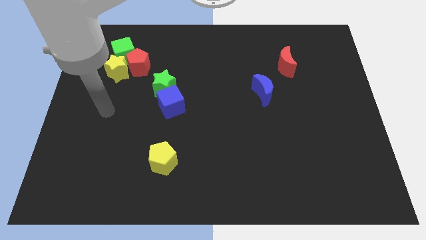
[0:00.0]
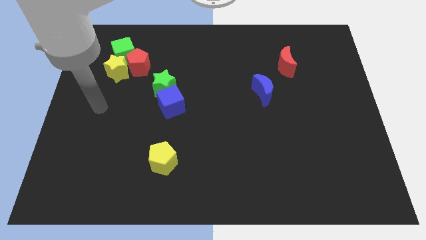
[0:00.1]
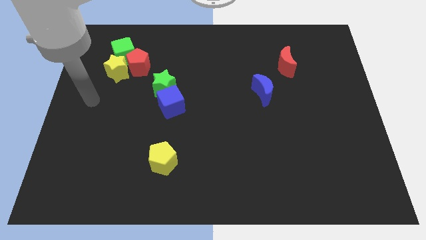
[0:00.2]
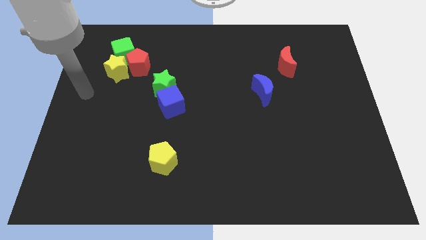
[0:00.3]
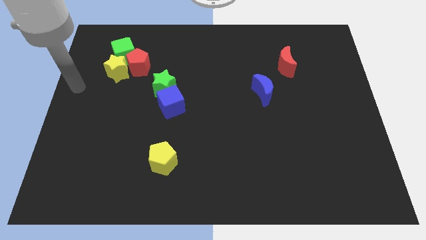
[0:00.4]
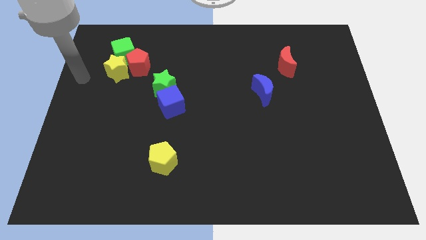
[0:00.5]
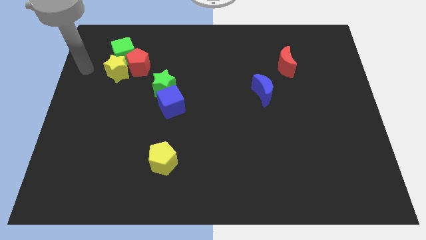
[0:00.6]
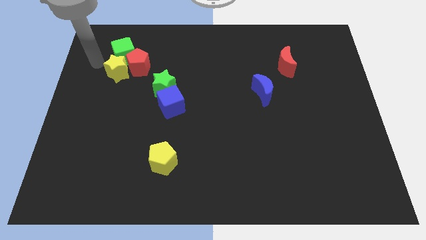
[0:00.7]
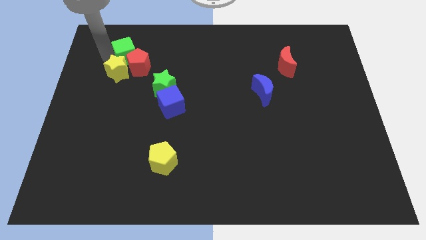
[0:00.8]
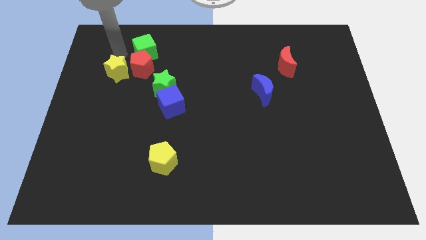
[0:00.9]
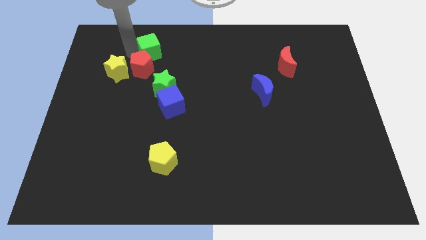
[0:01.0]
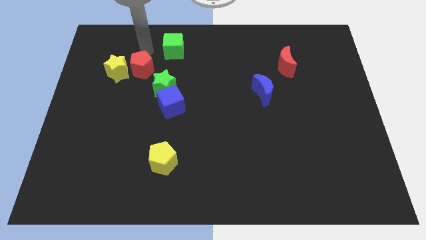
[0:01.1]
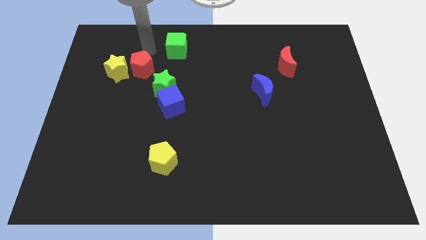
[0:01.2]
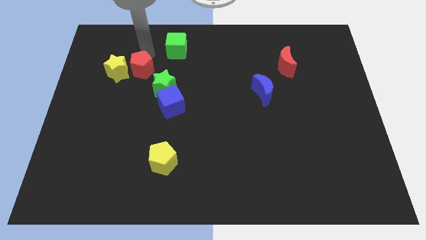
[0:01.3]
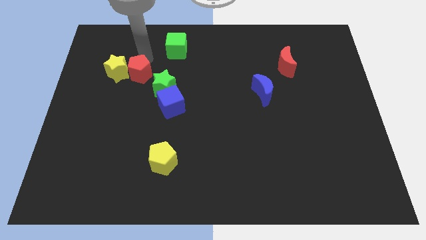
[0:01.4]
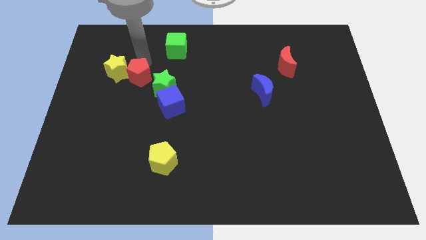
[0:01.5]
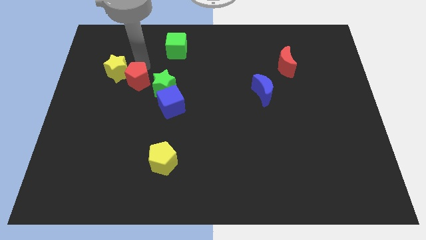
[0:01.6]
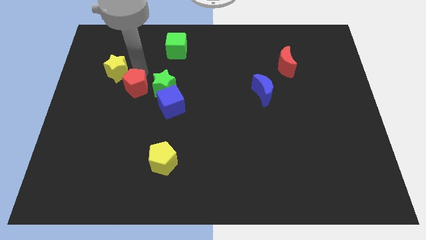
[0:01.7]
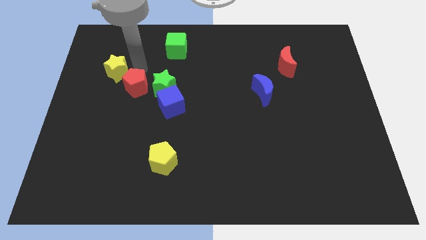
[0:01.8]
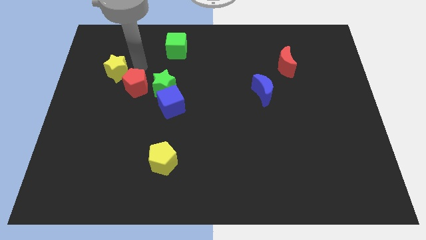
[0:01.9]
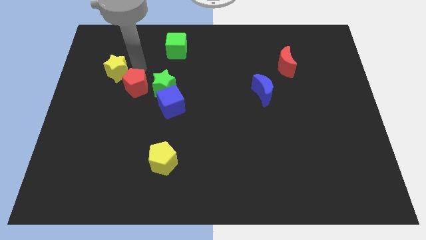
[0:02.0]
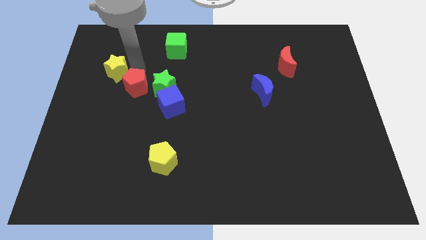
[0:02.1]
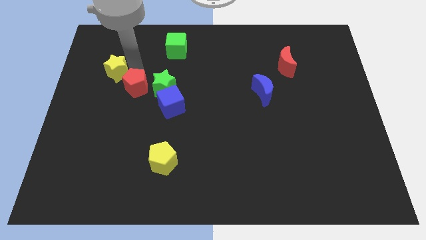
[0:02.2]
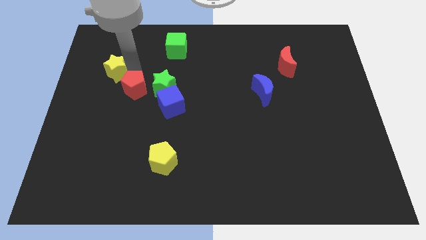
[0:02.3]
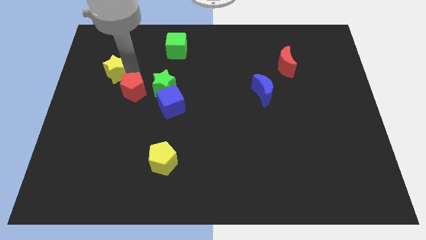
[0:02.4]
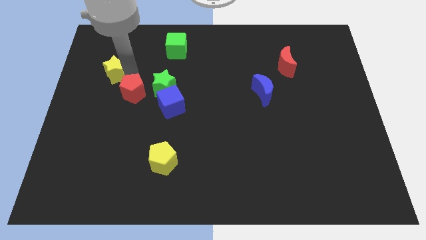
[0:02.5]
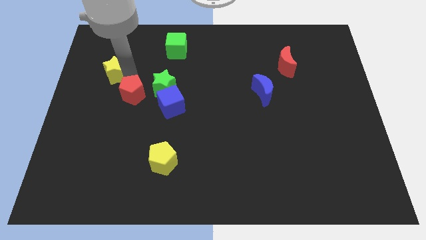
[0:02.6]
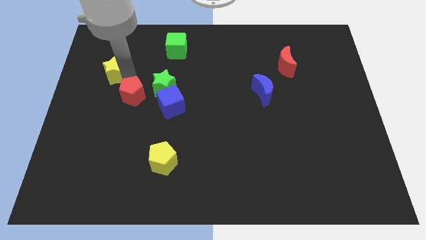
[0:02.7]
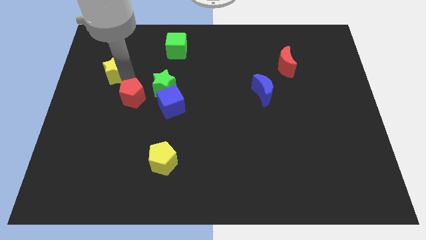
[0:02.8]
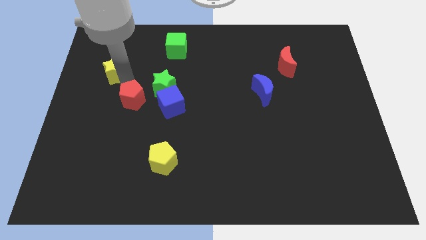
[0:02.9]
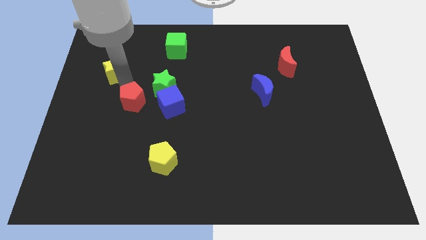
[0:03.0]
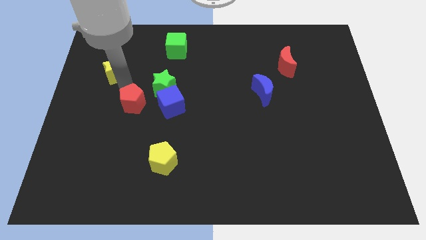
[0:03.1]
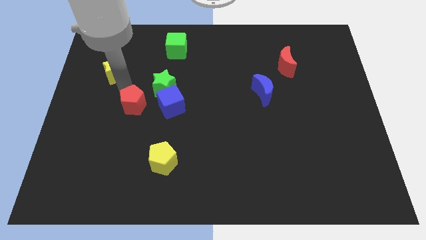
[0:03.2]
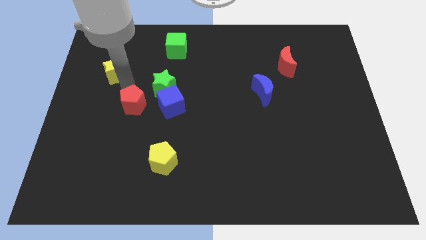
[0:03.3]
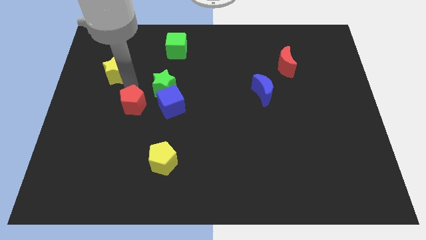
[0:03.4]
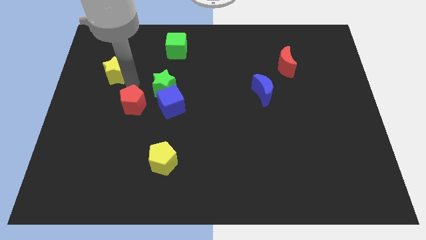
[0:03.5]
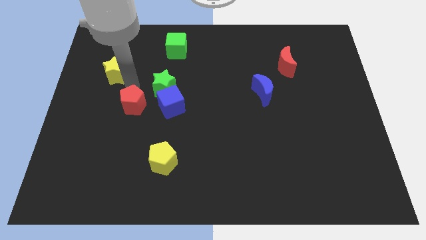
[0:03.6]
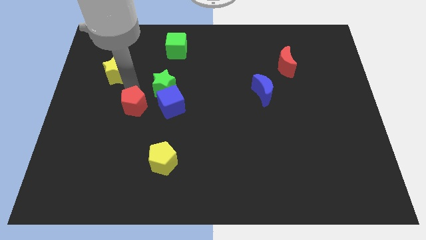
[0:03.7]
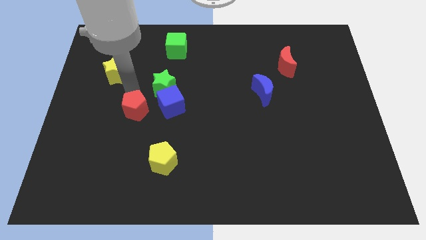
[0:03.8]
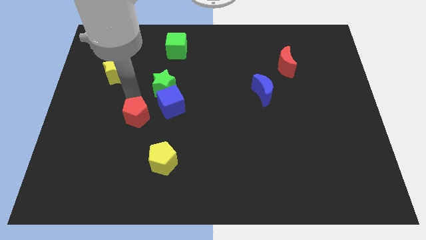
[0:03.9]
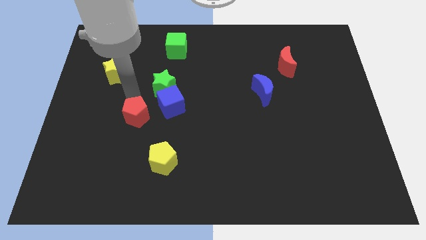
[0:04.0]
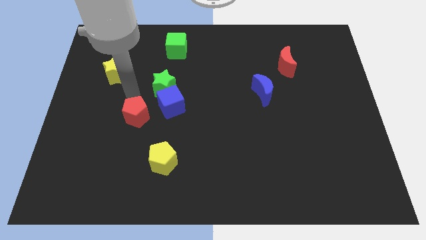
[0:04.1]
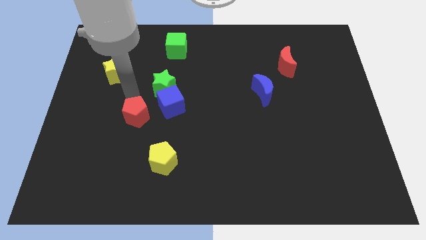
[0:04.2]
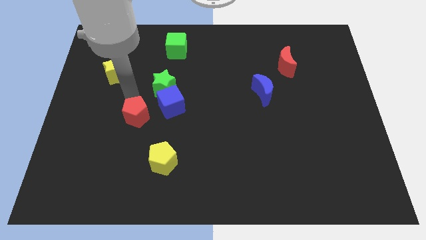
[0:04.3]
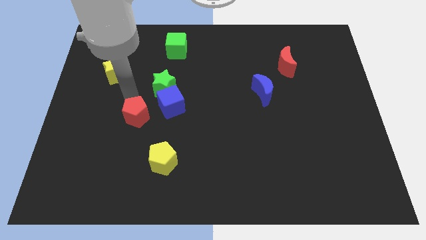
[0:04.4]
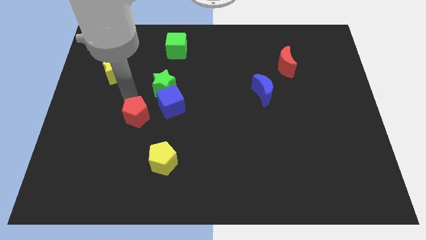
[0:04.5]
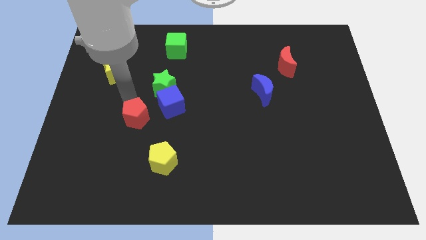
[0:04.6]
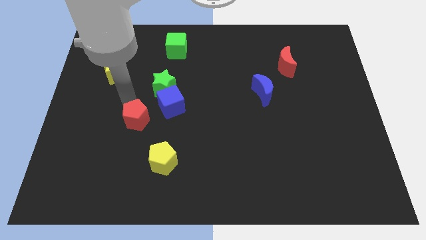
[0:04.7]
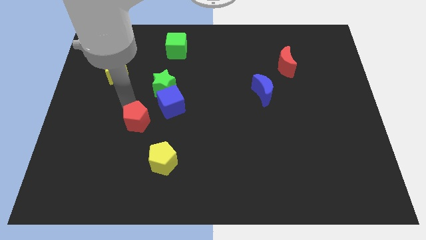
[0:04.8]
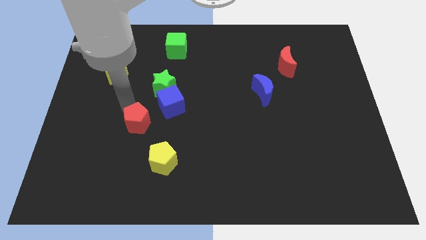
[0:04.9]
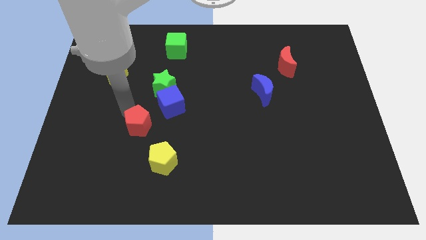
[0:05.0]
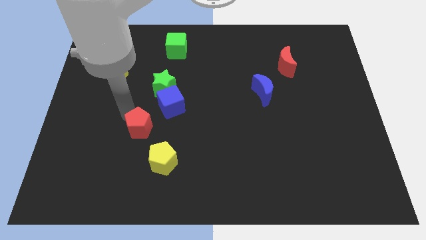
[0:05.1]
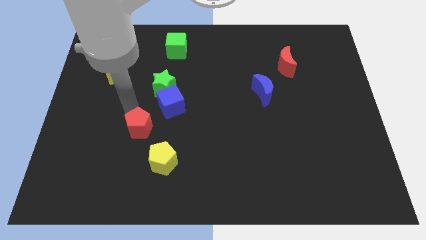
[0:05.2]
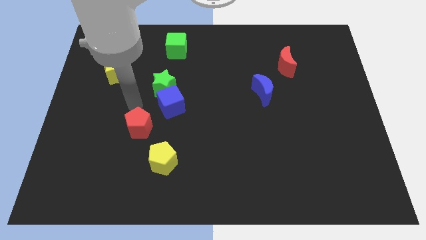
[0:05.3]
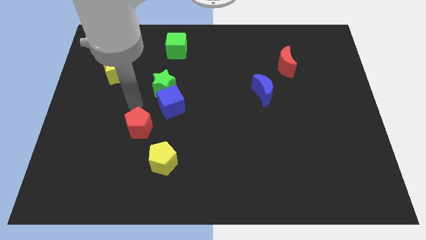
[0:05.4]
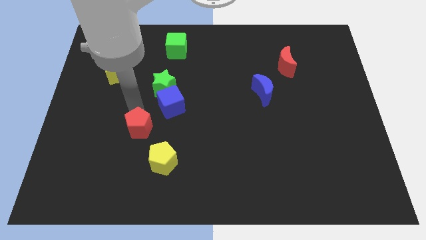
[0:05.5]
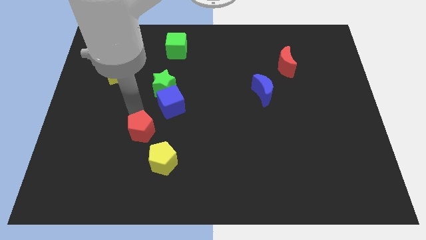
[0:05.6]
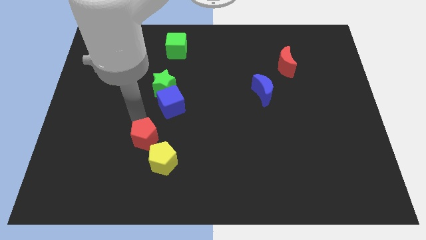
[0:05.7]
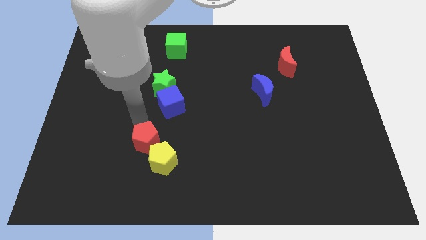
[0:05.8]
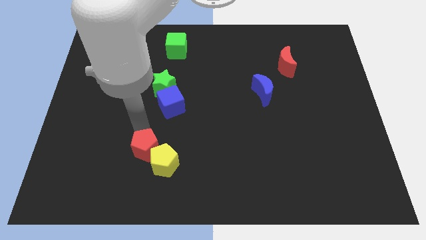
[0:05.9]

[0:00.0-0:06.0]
push the red pentagon to the yellow pentagon

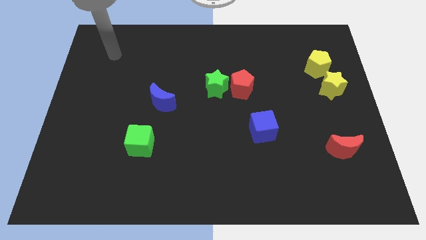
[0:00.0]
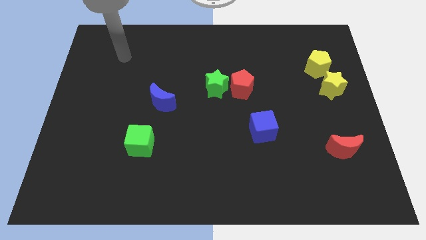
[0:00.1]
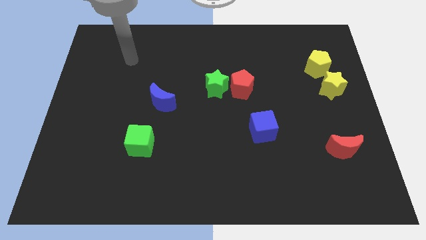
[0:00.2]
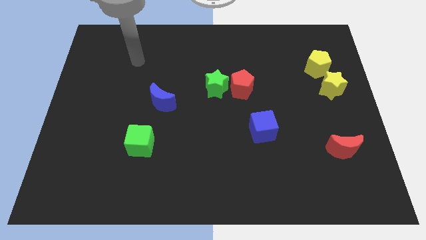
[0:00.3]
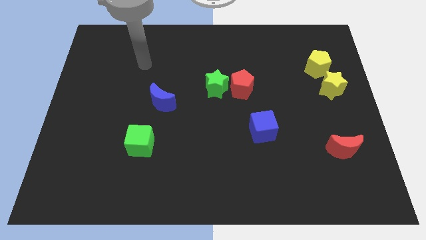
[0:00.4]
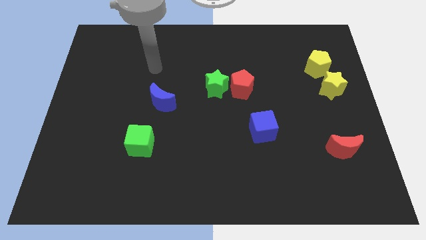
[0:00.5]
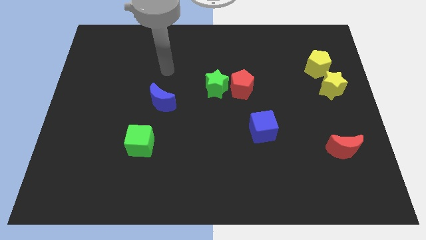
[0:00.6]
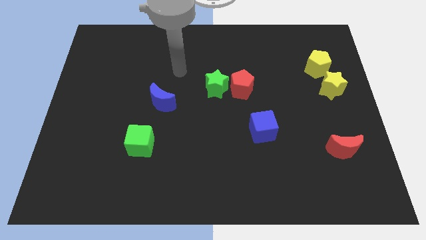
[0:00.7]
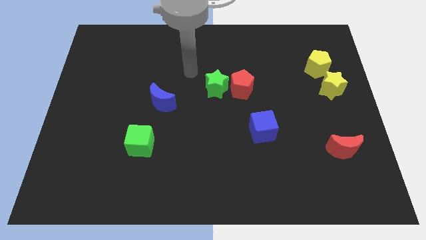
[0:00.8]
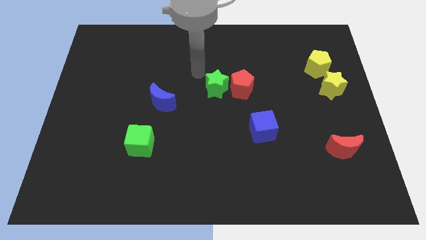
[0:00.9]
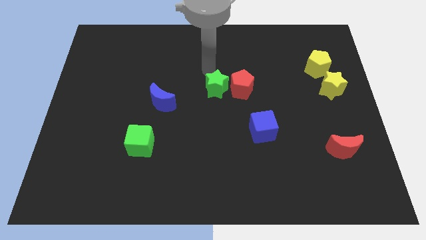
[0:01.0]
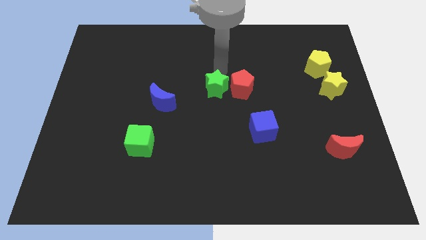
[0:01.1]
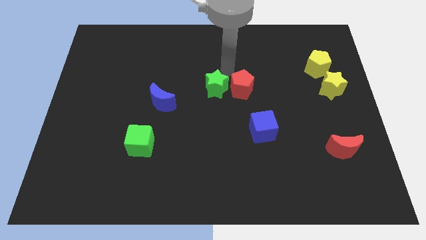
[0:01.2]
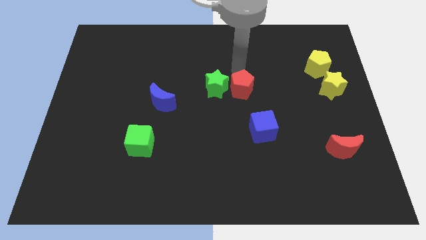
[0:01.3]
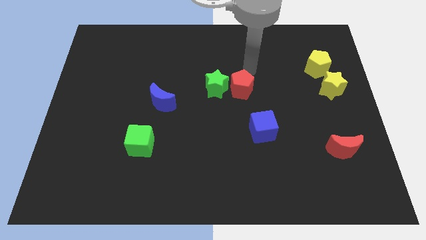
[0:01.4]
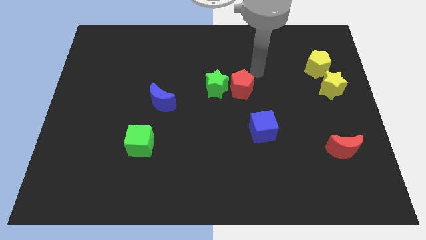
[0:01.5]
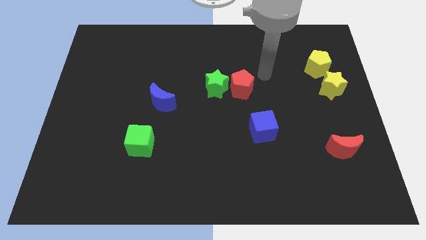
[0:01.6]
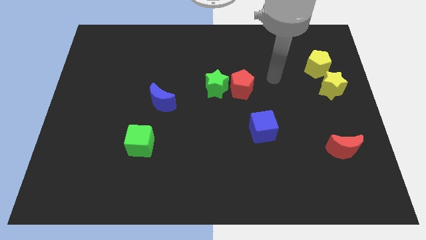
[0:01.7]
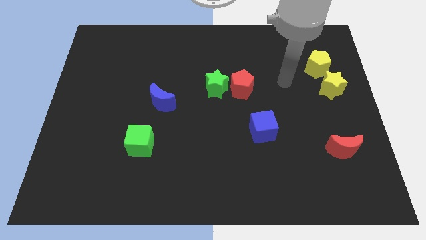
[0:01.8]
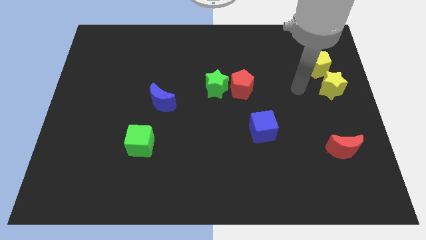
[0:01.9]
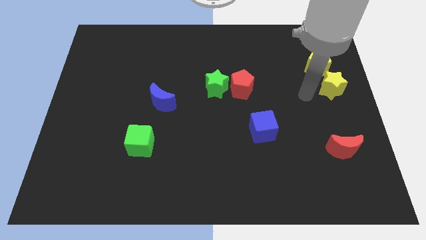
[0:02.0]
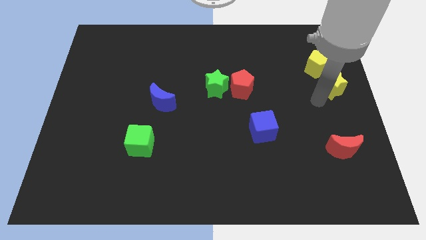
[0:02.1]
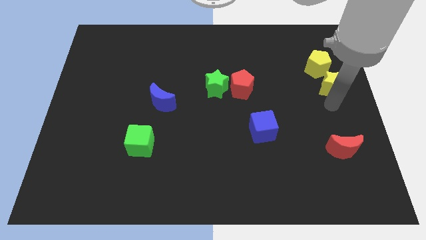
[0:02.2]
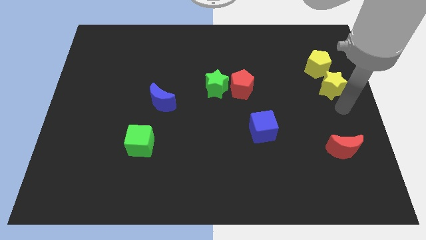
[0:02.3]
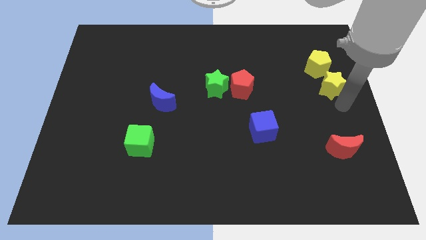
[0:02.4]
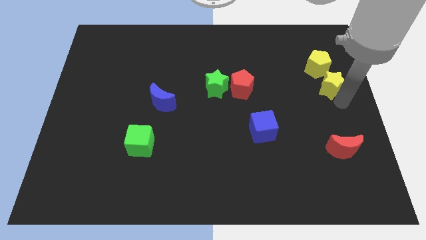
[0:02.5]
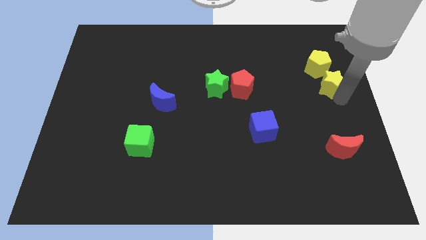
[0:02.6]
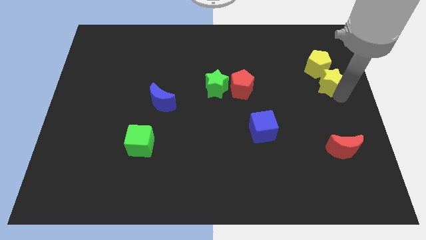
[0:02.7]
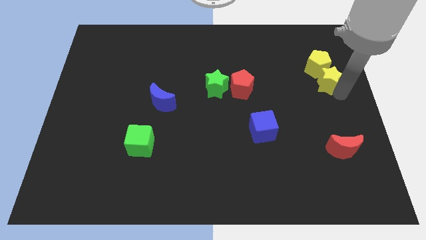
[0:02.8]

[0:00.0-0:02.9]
move the yellow star to the yellow pentagon
